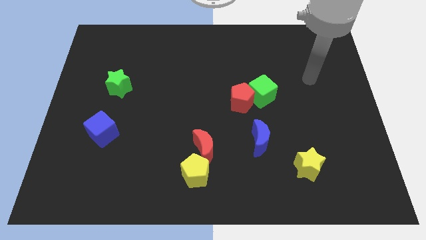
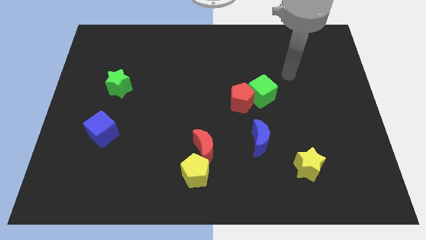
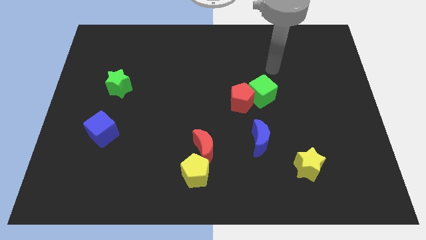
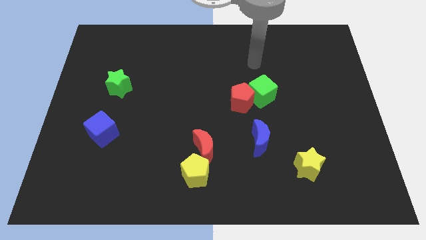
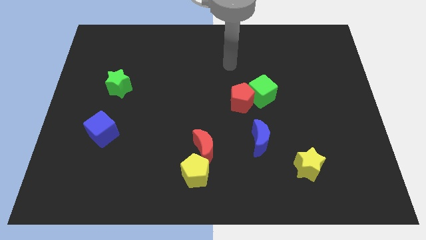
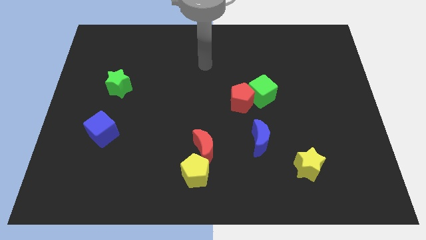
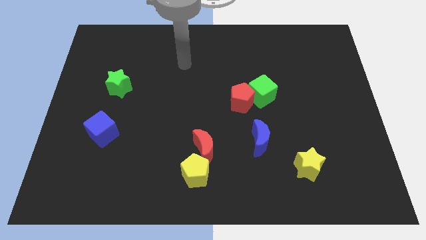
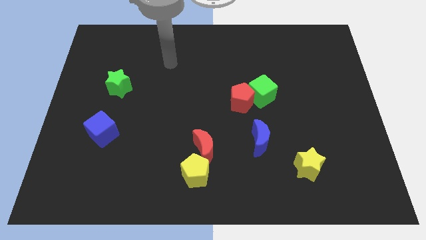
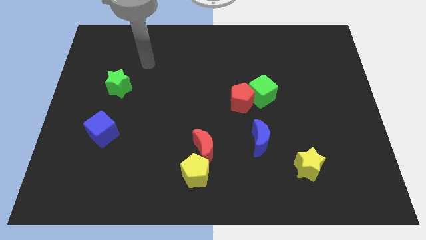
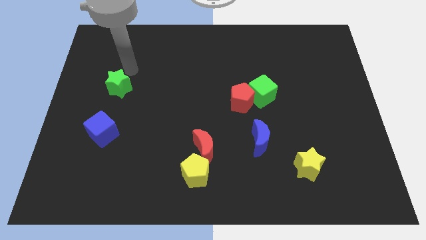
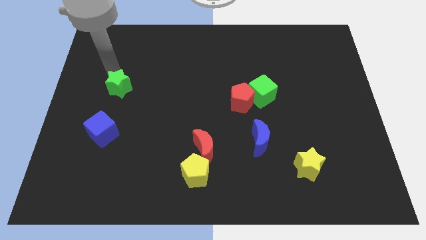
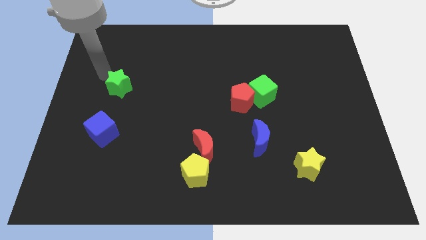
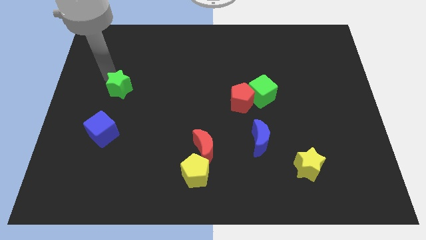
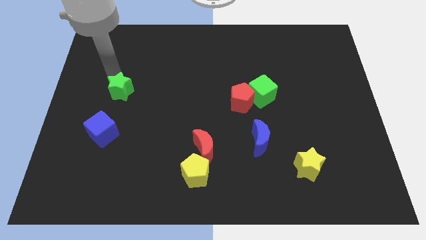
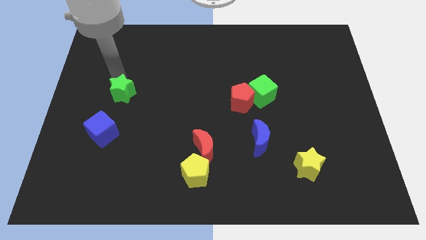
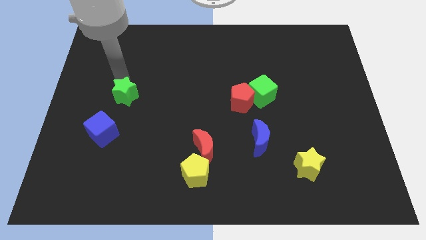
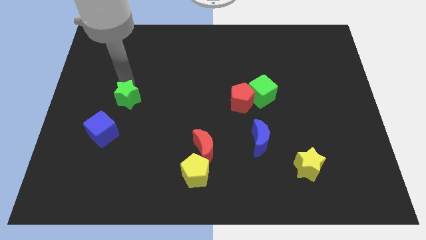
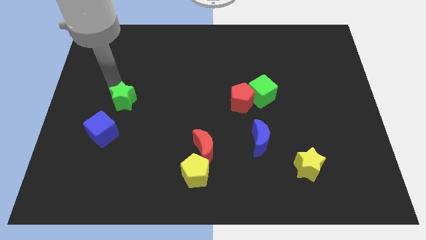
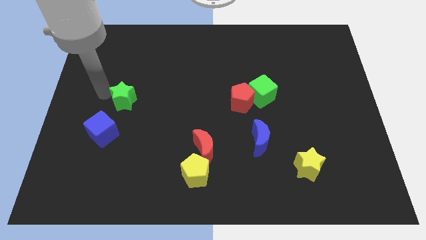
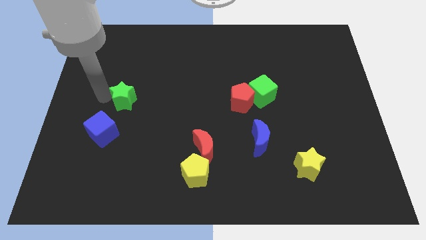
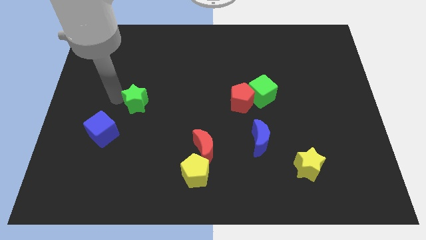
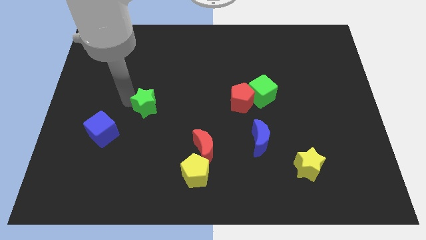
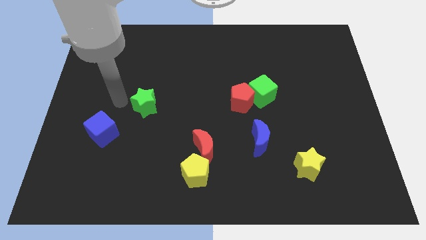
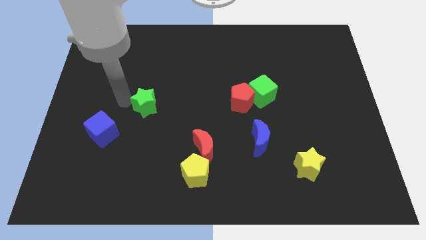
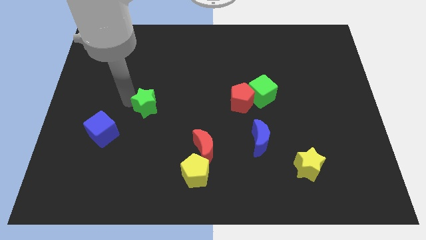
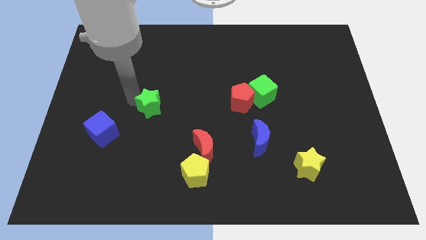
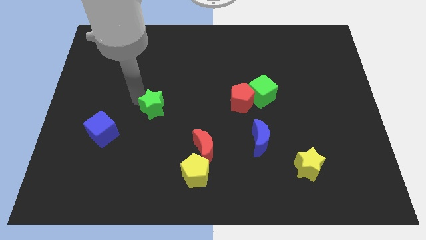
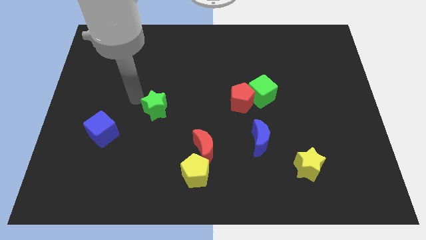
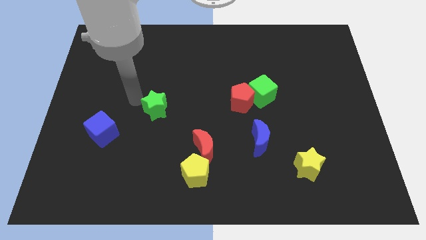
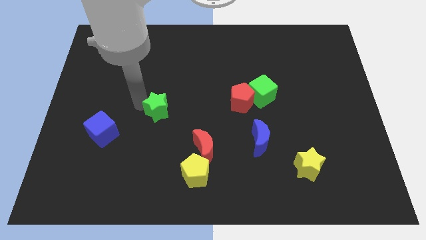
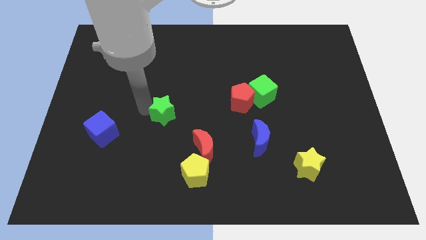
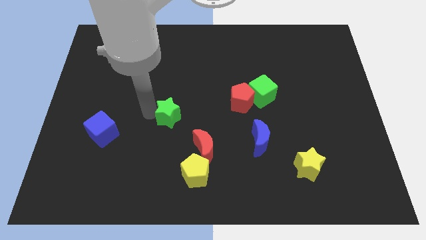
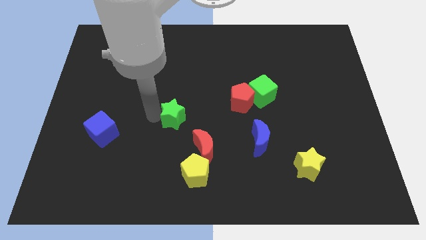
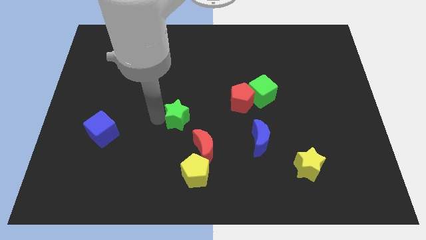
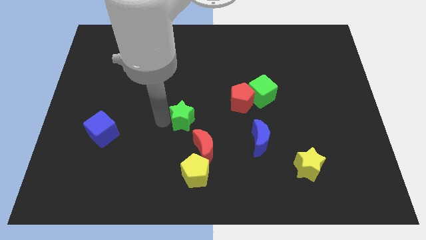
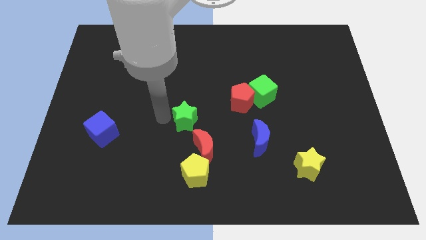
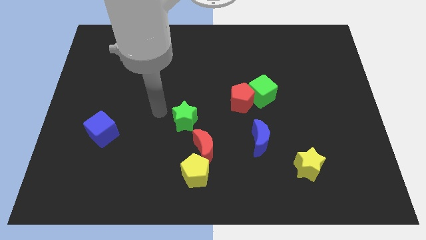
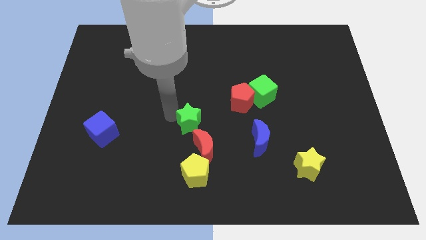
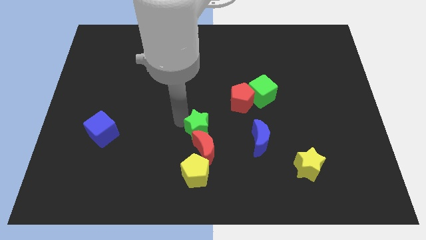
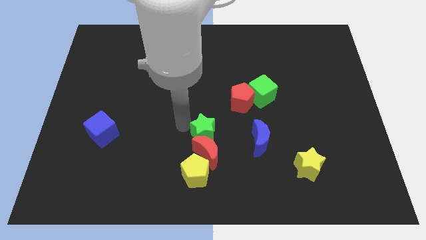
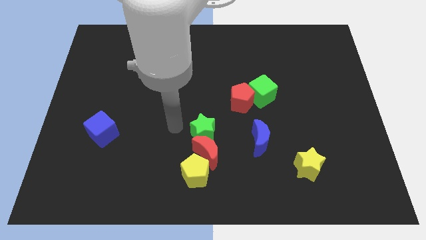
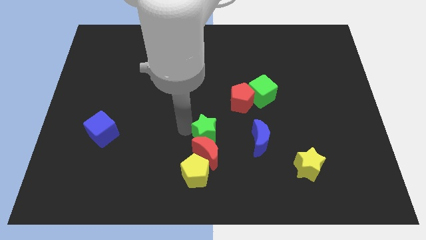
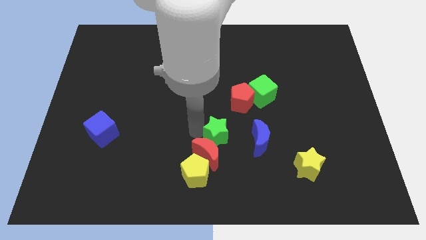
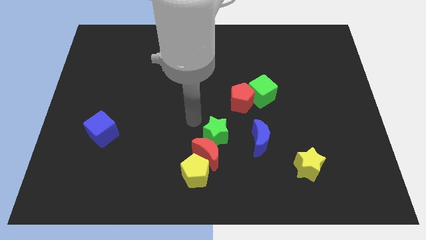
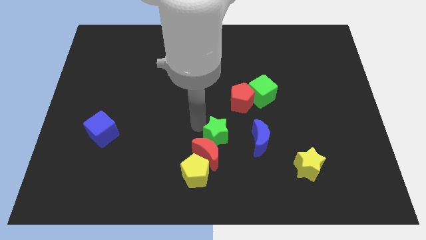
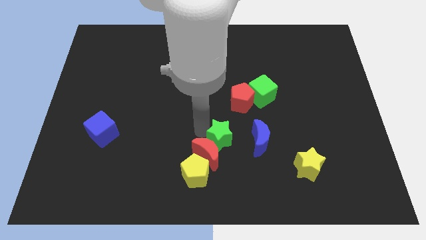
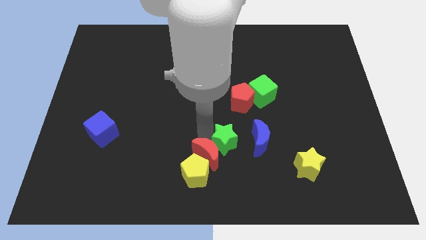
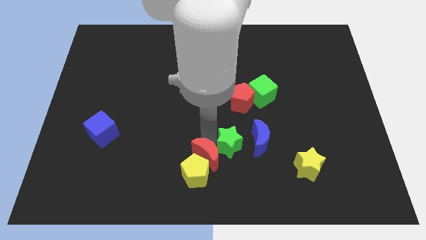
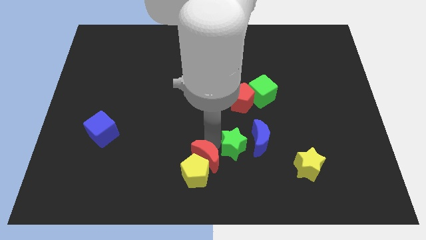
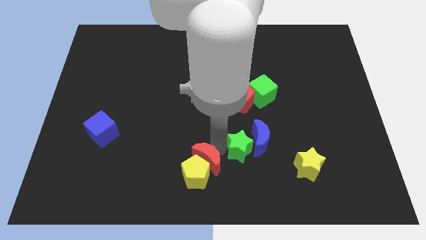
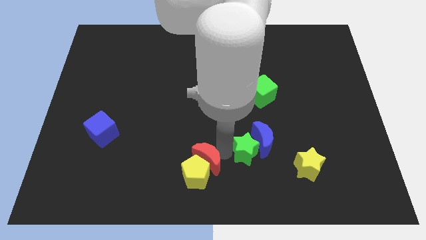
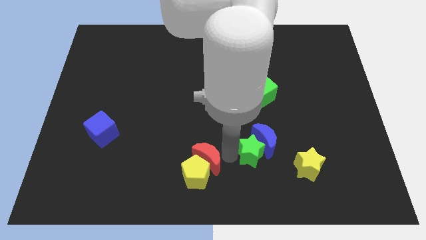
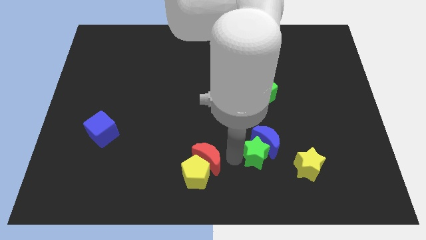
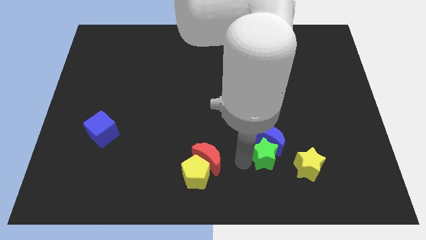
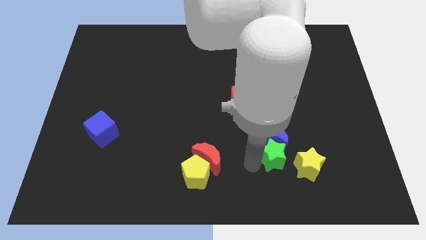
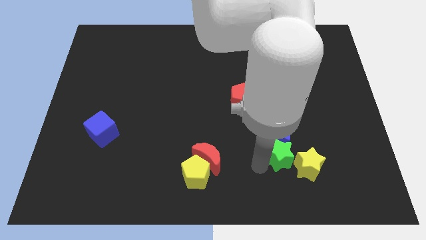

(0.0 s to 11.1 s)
push the green star to the yellow star
